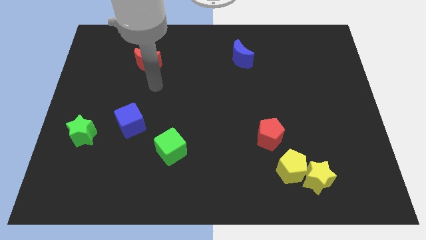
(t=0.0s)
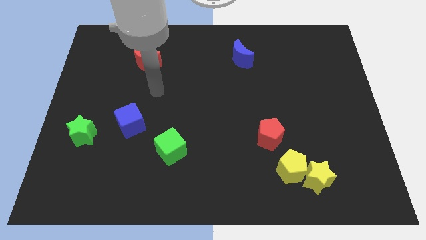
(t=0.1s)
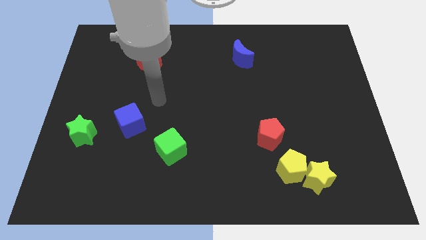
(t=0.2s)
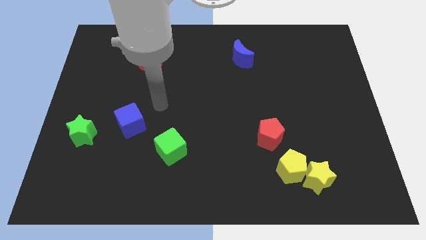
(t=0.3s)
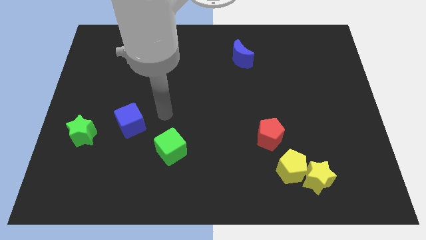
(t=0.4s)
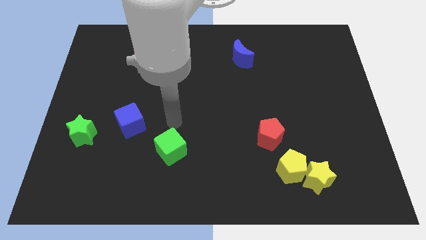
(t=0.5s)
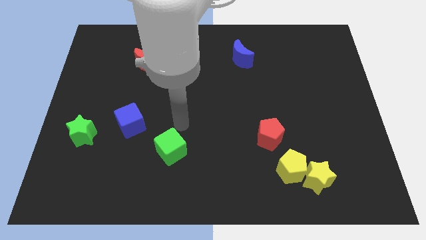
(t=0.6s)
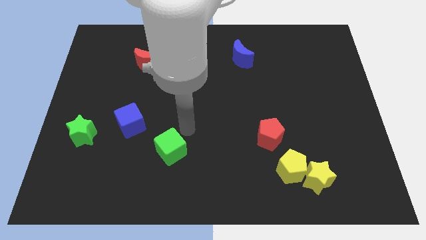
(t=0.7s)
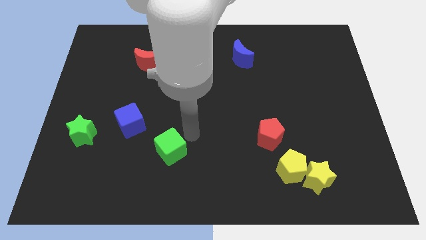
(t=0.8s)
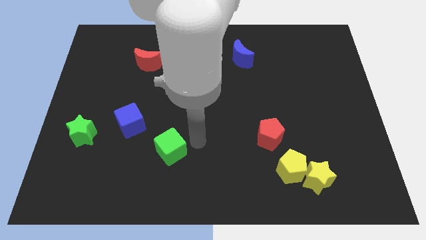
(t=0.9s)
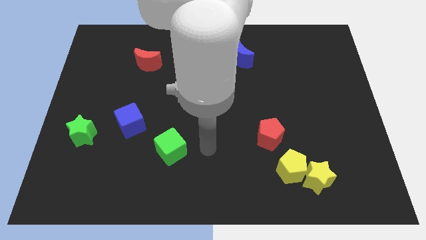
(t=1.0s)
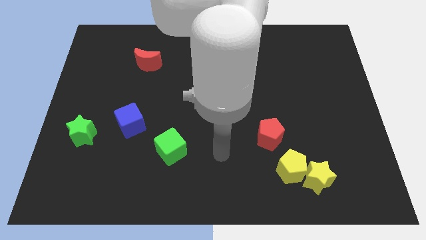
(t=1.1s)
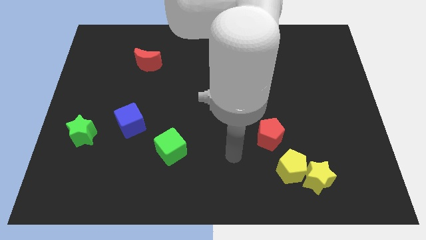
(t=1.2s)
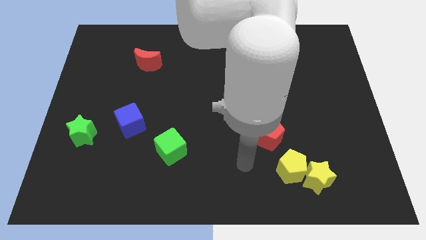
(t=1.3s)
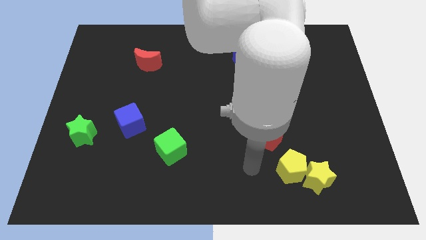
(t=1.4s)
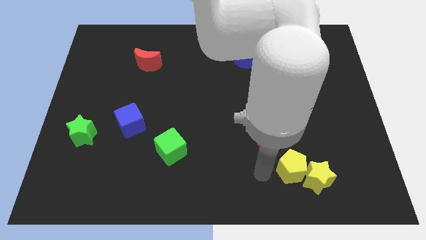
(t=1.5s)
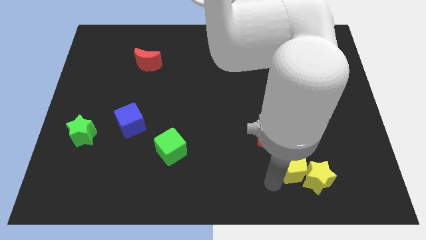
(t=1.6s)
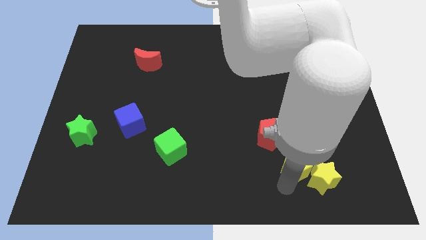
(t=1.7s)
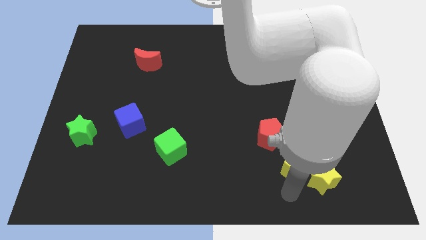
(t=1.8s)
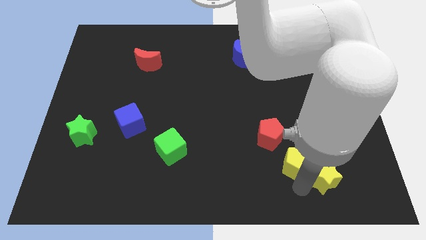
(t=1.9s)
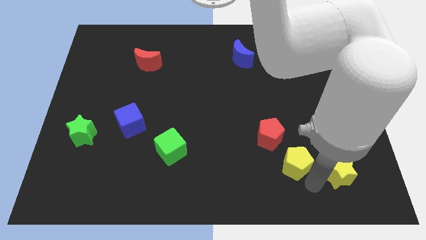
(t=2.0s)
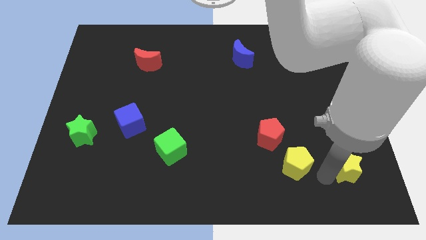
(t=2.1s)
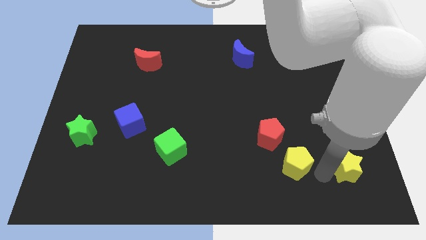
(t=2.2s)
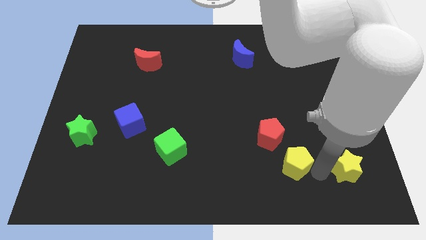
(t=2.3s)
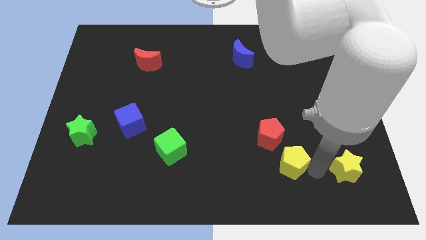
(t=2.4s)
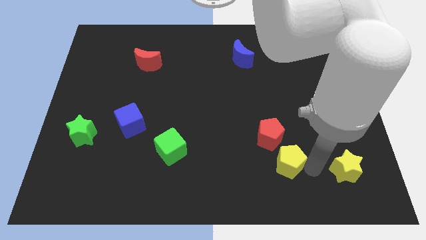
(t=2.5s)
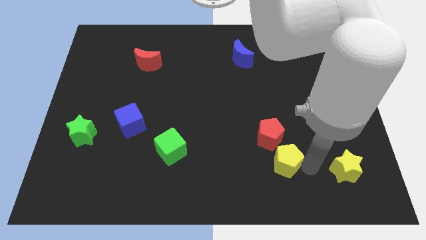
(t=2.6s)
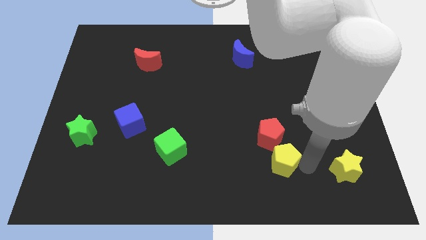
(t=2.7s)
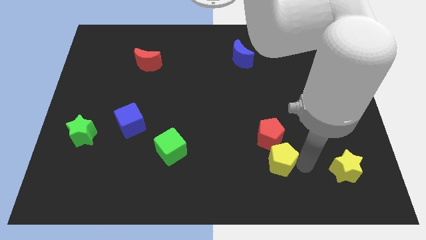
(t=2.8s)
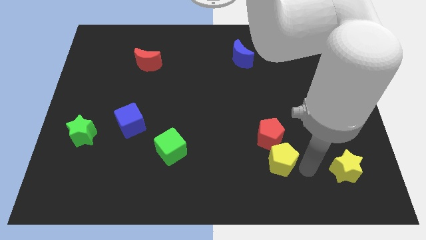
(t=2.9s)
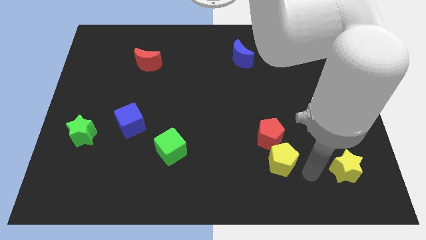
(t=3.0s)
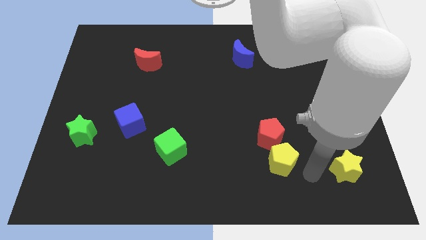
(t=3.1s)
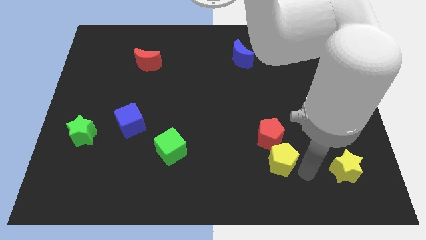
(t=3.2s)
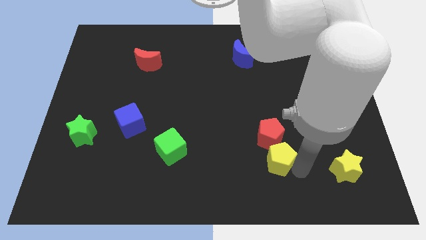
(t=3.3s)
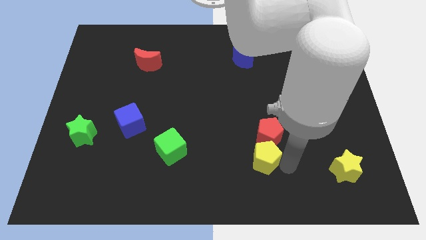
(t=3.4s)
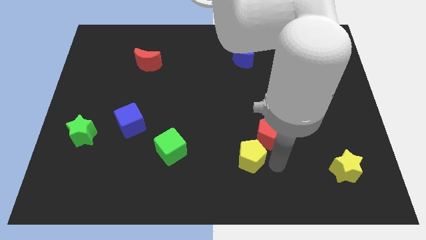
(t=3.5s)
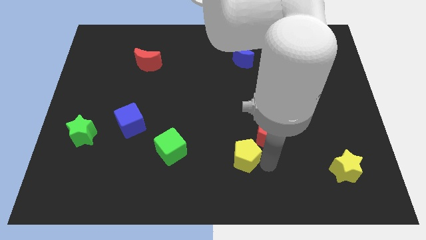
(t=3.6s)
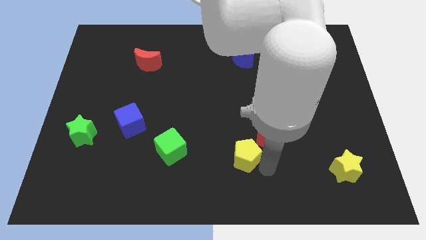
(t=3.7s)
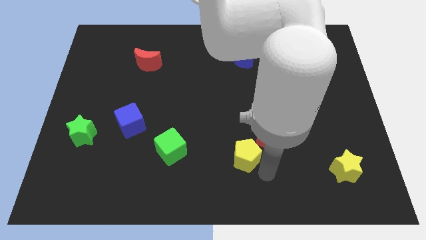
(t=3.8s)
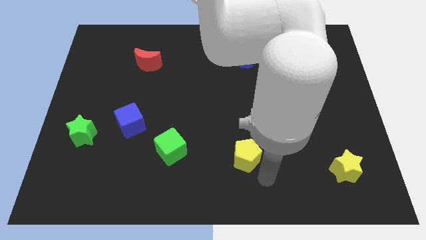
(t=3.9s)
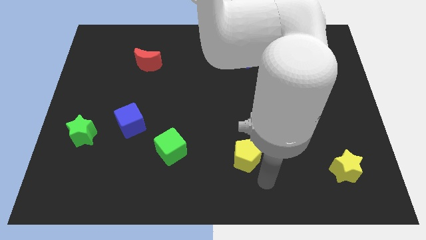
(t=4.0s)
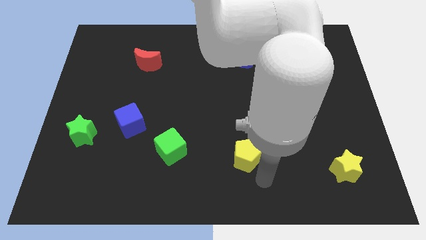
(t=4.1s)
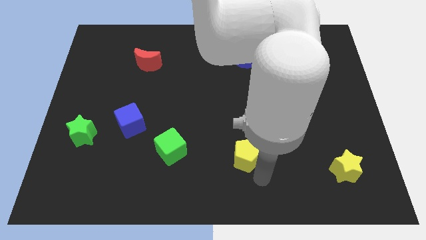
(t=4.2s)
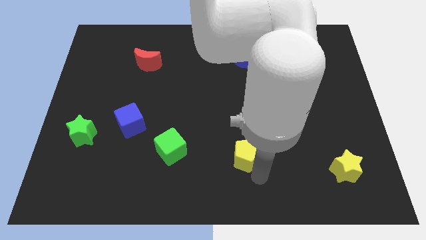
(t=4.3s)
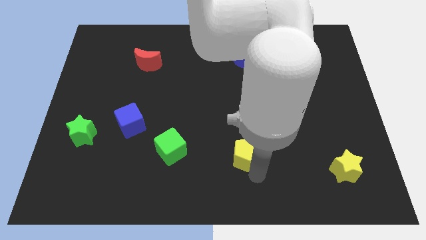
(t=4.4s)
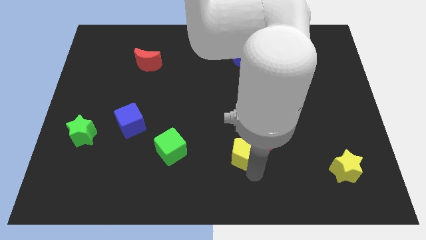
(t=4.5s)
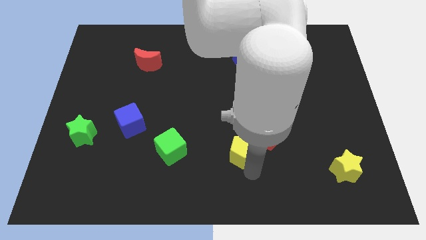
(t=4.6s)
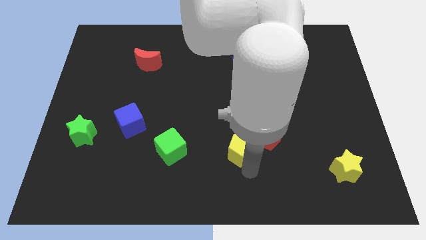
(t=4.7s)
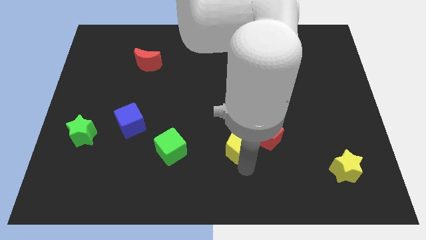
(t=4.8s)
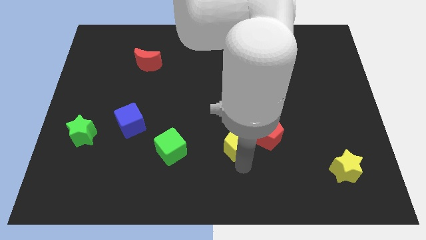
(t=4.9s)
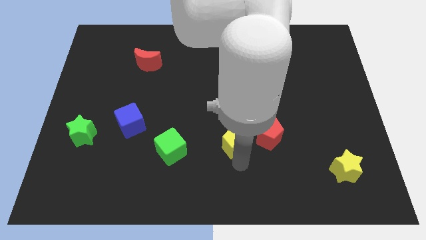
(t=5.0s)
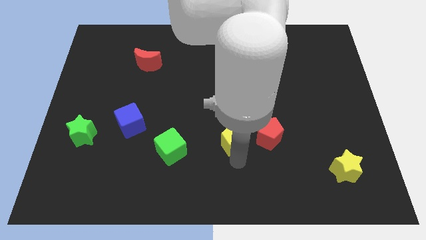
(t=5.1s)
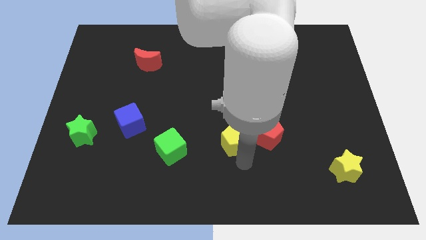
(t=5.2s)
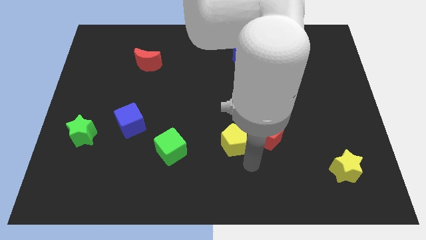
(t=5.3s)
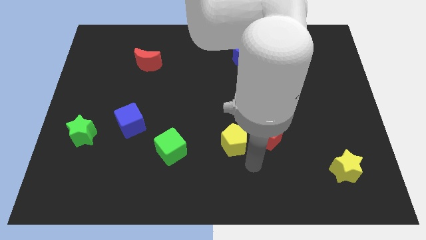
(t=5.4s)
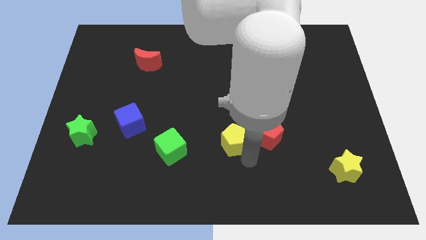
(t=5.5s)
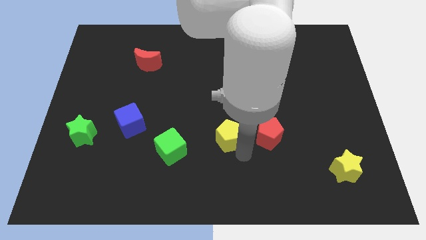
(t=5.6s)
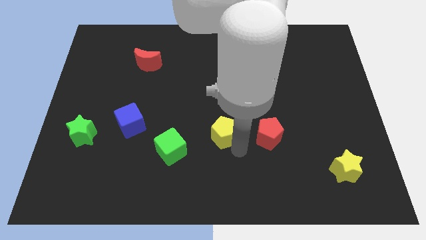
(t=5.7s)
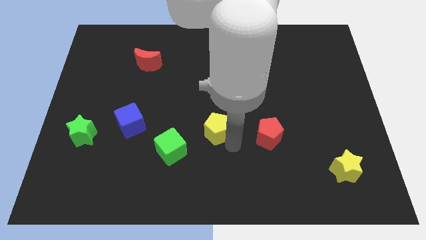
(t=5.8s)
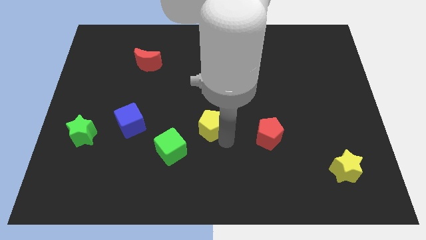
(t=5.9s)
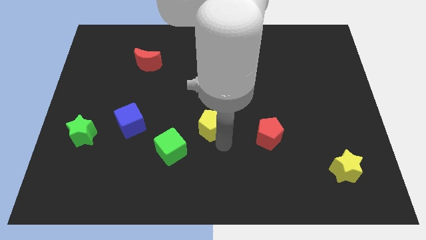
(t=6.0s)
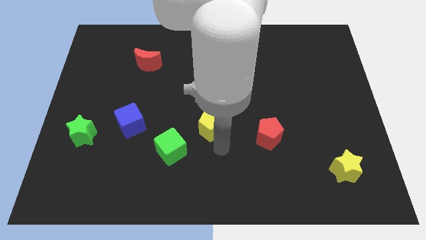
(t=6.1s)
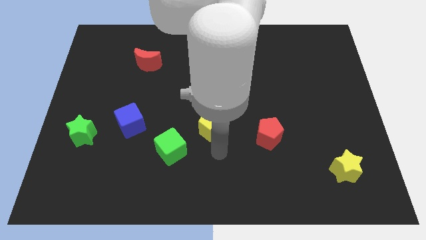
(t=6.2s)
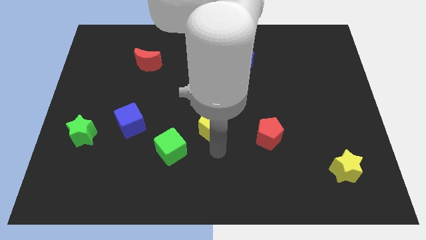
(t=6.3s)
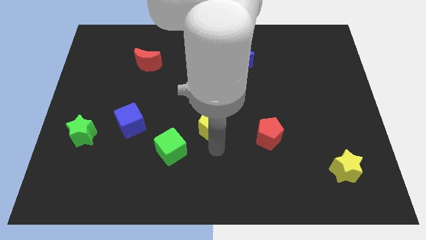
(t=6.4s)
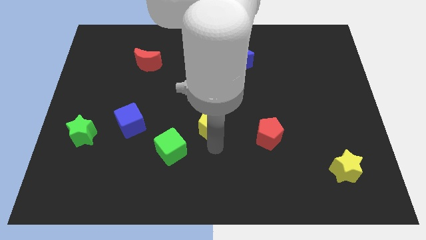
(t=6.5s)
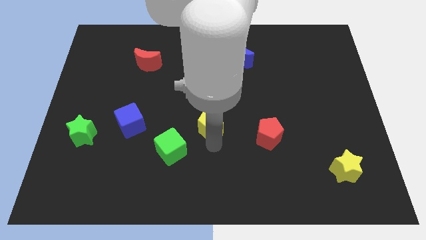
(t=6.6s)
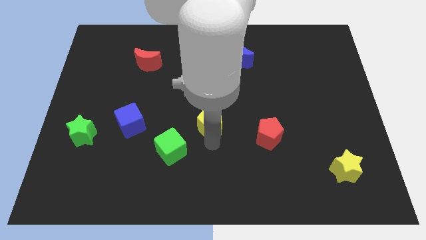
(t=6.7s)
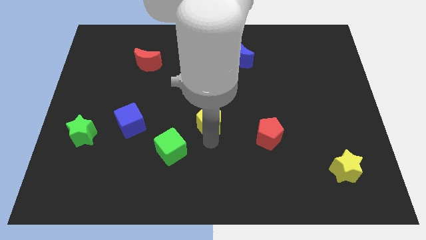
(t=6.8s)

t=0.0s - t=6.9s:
slide the yellow pentagon up and left

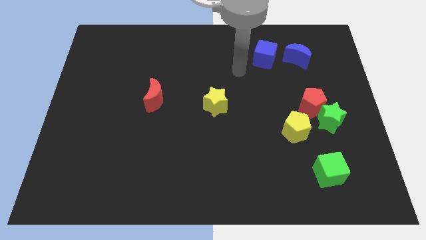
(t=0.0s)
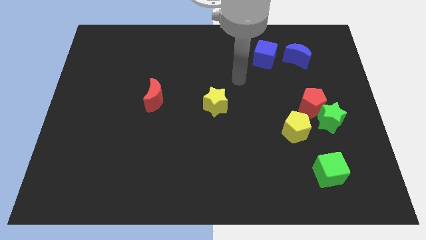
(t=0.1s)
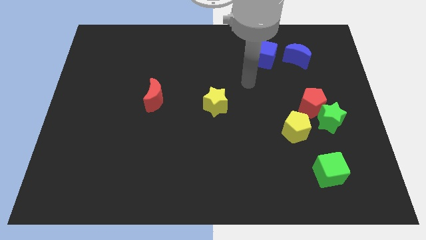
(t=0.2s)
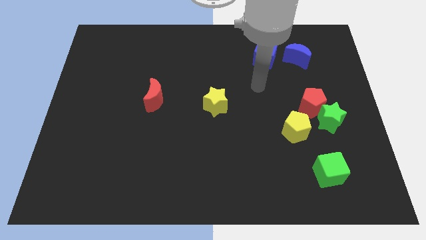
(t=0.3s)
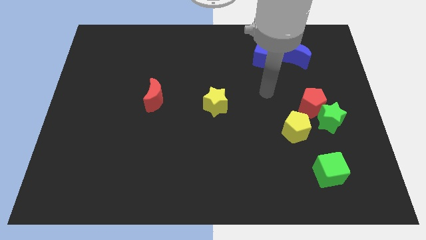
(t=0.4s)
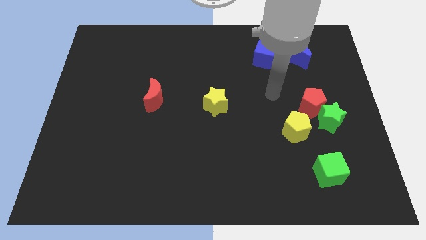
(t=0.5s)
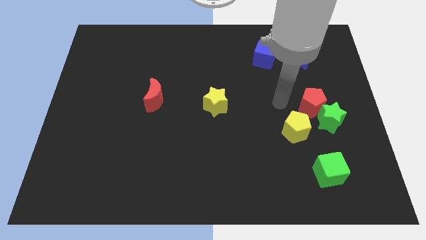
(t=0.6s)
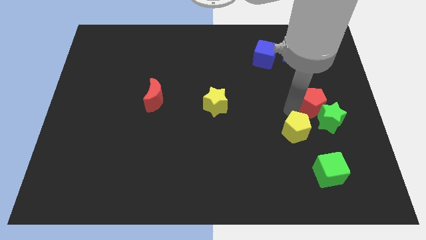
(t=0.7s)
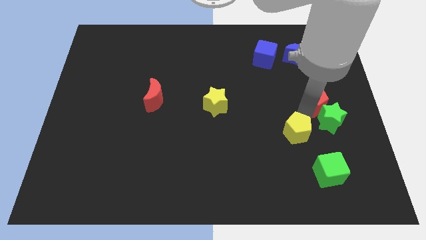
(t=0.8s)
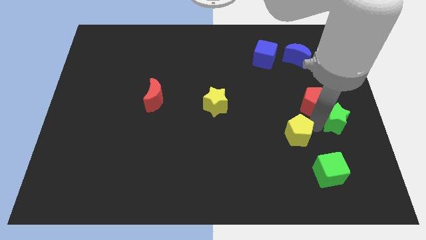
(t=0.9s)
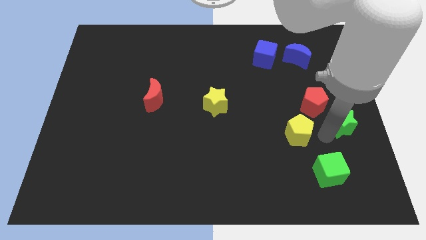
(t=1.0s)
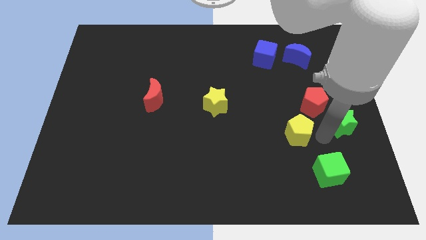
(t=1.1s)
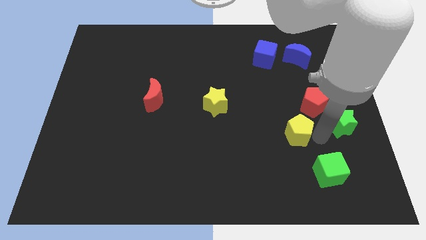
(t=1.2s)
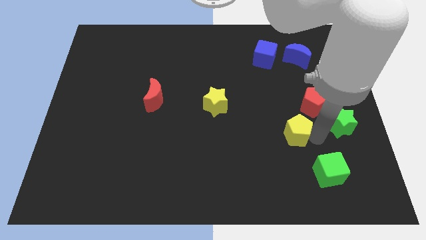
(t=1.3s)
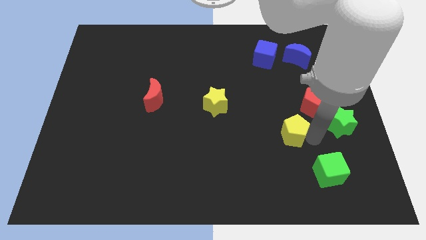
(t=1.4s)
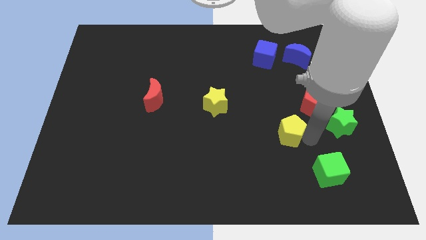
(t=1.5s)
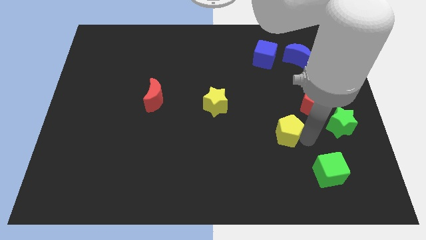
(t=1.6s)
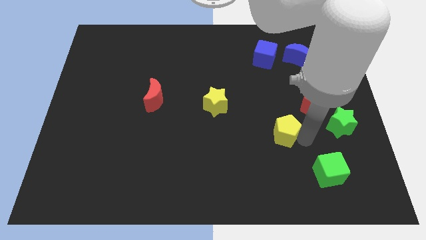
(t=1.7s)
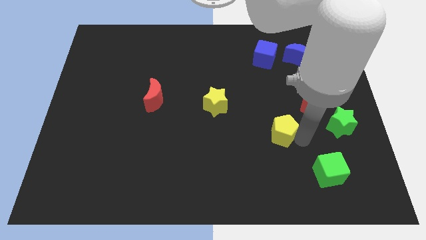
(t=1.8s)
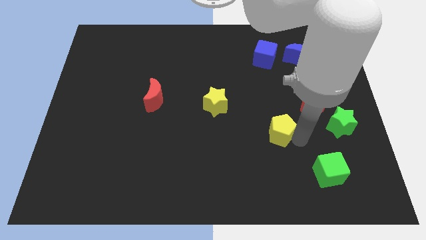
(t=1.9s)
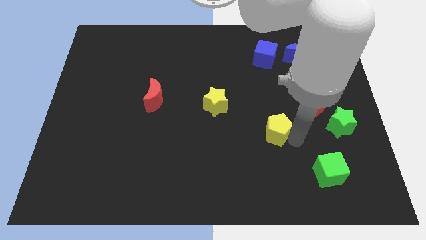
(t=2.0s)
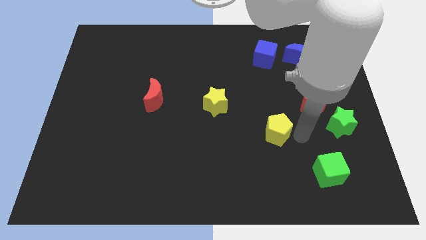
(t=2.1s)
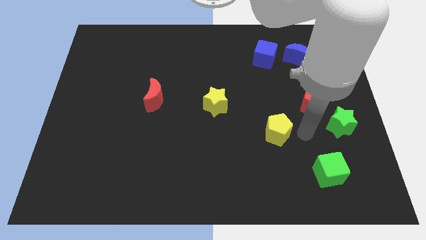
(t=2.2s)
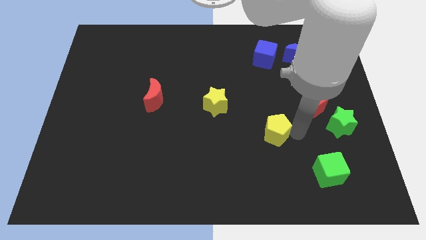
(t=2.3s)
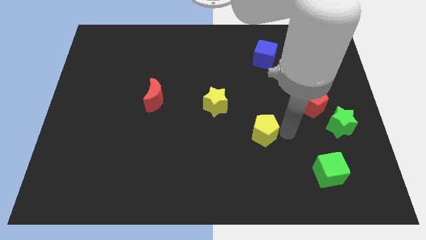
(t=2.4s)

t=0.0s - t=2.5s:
slide the yellow pentagon left slightly
